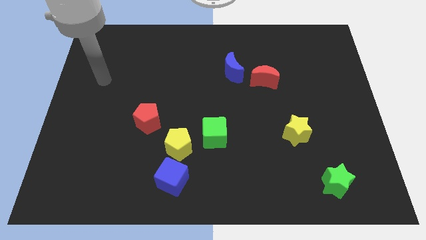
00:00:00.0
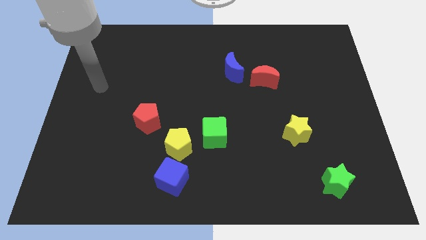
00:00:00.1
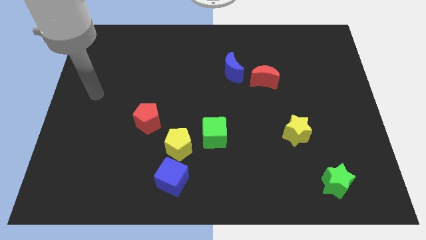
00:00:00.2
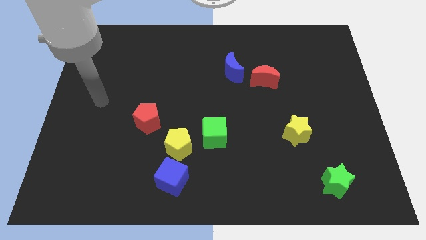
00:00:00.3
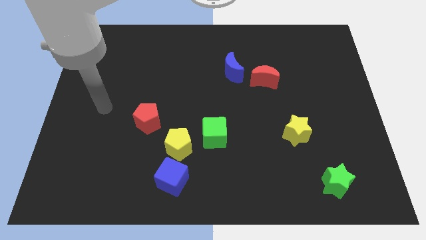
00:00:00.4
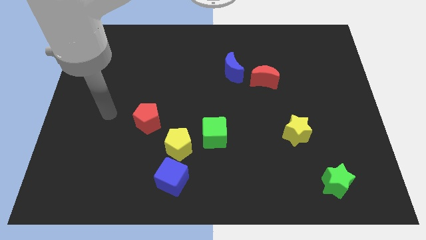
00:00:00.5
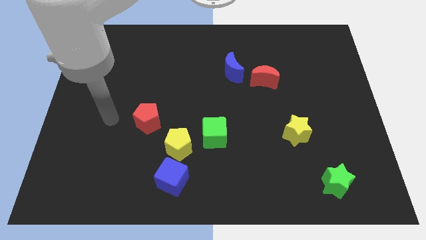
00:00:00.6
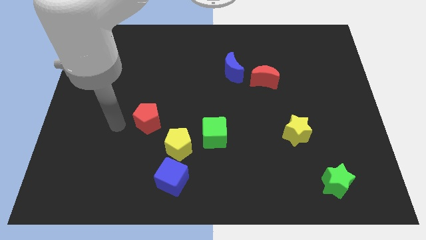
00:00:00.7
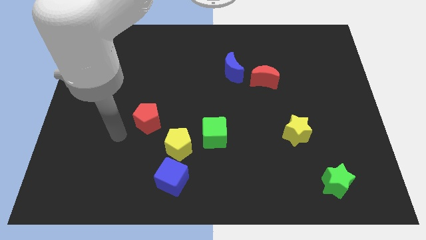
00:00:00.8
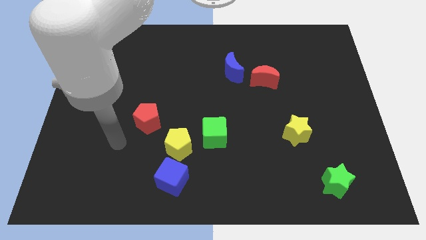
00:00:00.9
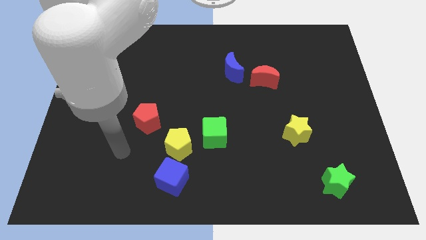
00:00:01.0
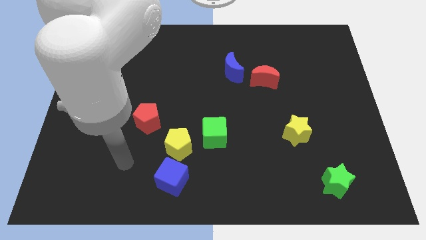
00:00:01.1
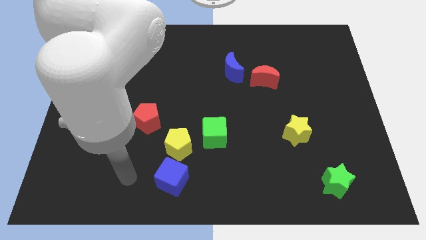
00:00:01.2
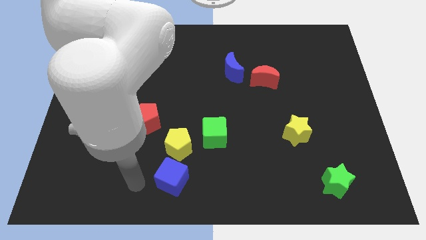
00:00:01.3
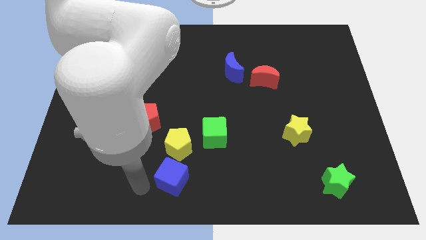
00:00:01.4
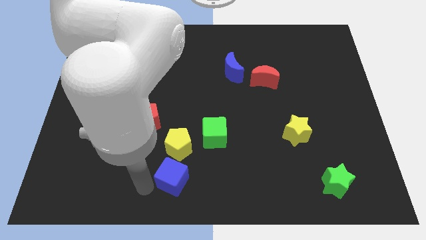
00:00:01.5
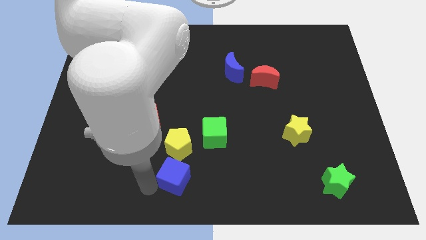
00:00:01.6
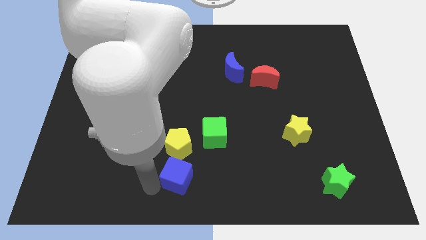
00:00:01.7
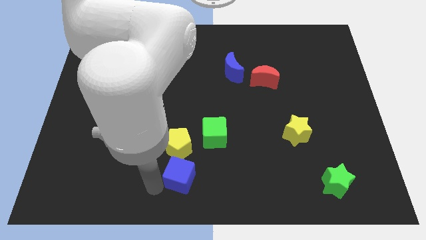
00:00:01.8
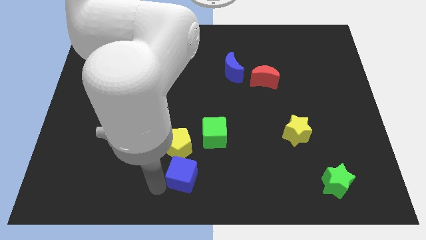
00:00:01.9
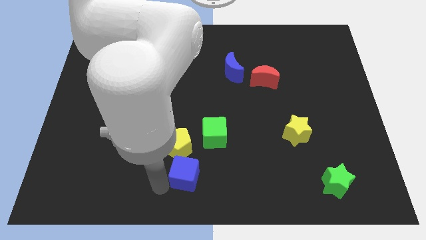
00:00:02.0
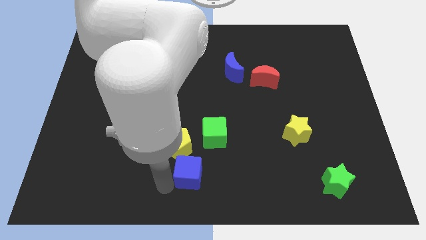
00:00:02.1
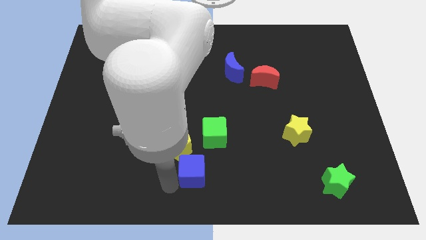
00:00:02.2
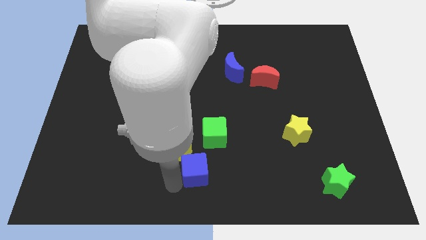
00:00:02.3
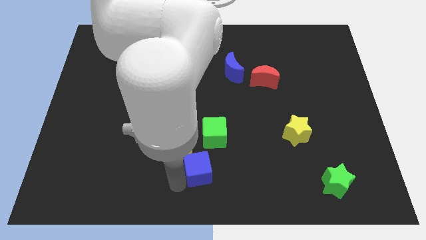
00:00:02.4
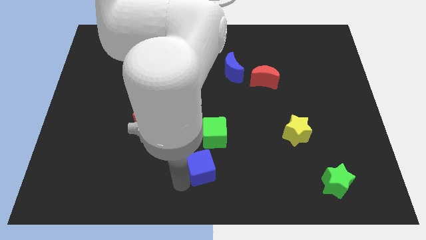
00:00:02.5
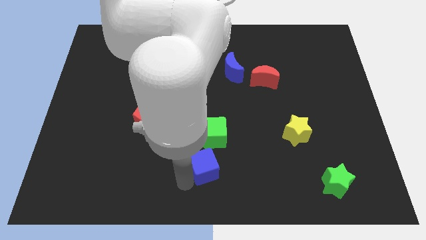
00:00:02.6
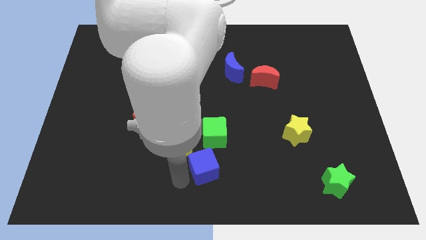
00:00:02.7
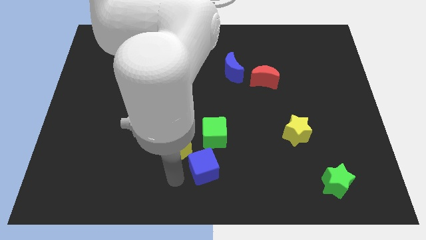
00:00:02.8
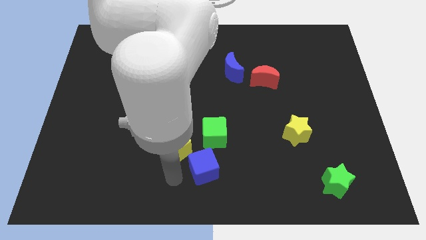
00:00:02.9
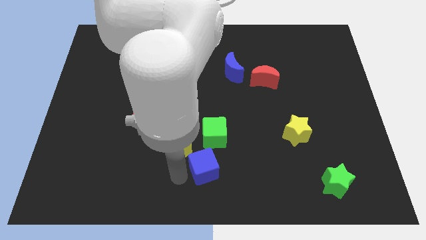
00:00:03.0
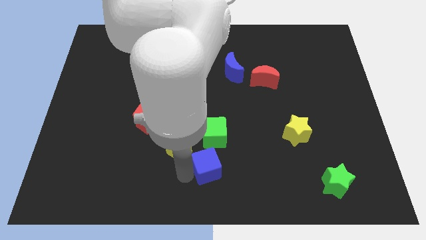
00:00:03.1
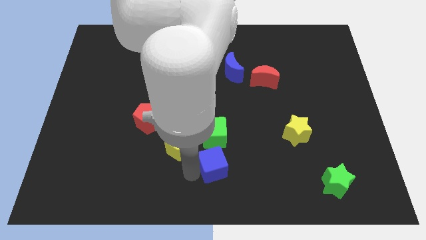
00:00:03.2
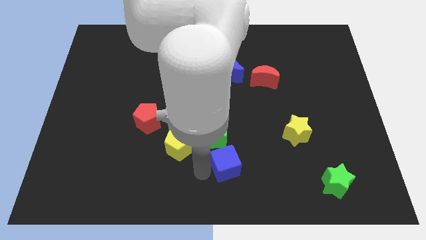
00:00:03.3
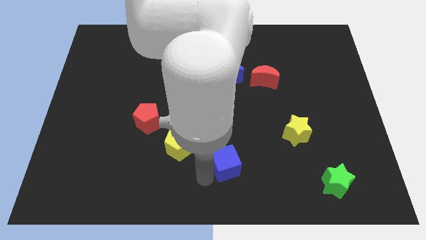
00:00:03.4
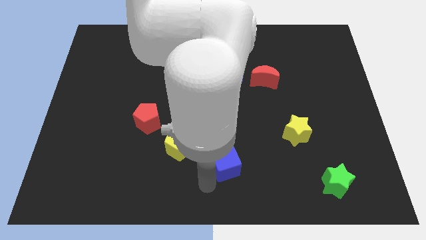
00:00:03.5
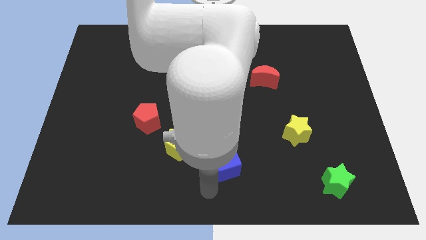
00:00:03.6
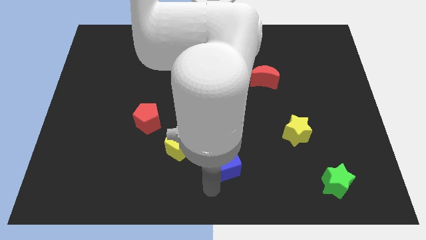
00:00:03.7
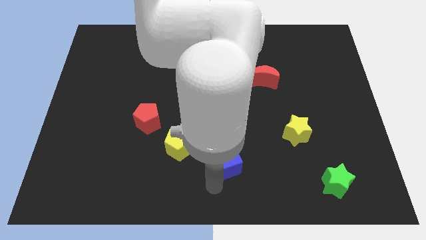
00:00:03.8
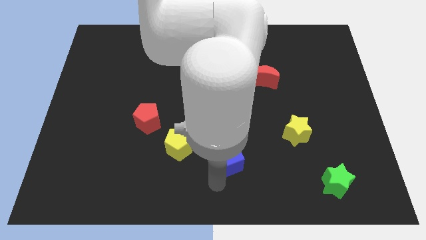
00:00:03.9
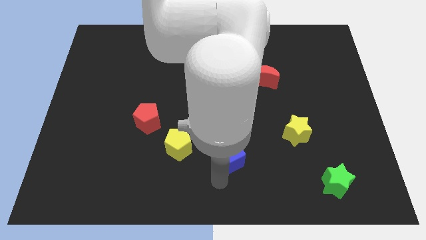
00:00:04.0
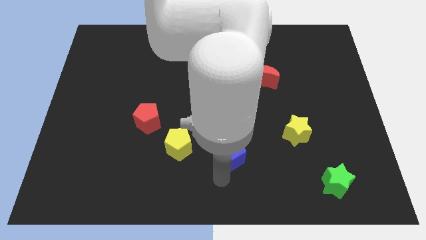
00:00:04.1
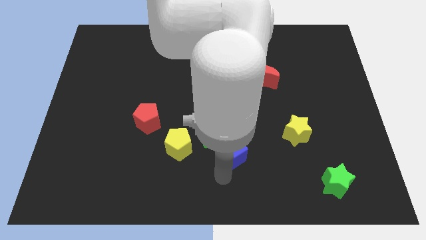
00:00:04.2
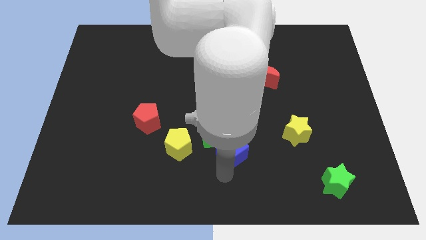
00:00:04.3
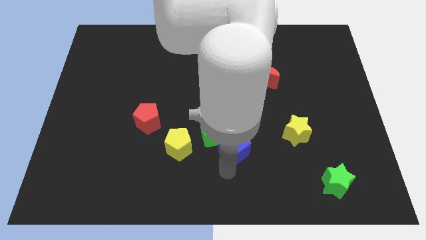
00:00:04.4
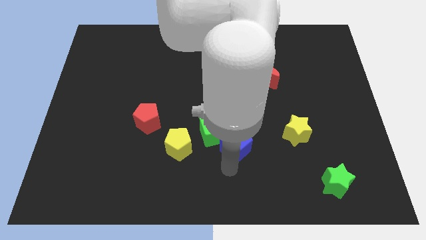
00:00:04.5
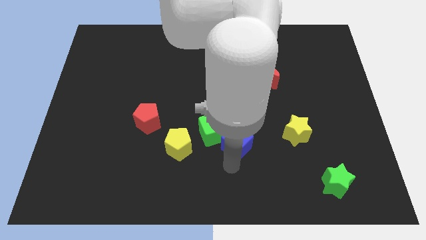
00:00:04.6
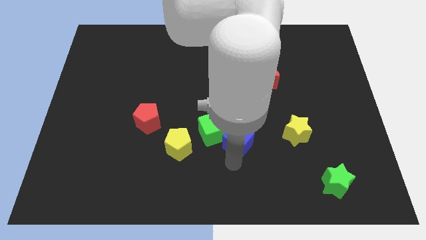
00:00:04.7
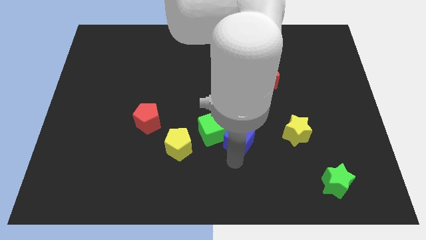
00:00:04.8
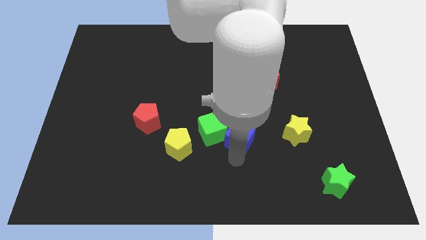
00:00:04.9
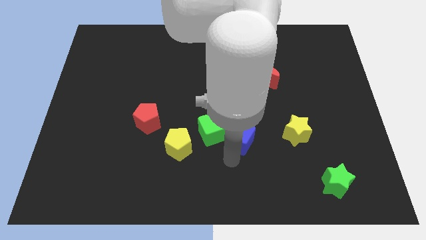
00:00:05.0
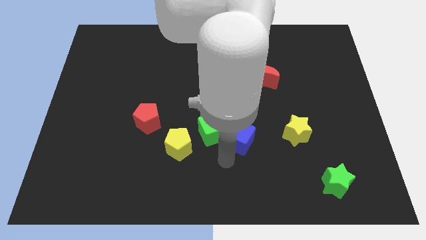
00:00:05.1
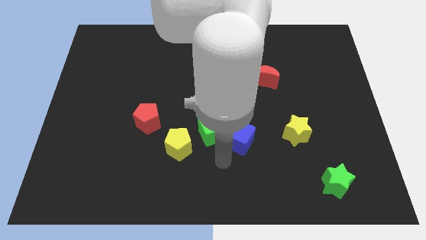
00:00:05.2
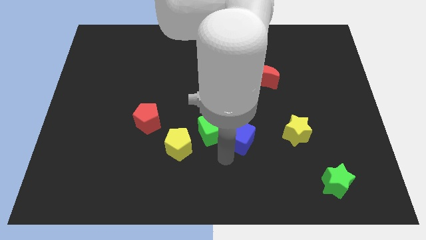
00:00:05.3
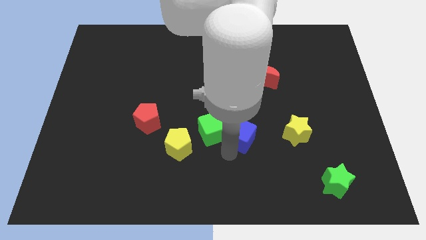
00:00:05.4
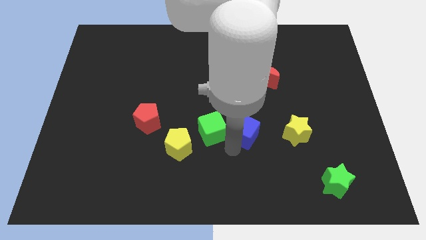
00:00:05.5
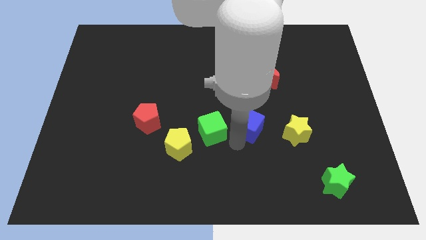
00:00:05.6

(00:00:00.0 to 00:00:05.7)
push the blue cube up and then to the right

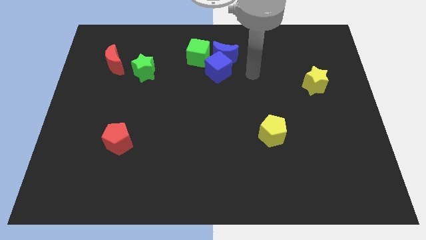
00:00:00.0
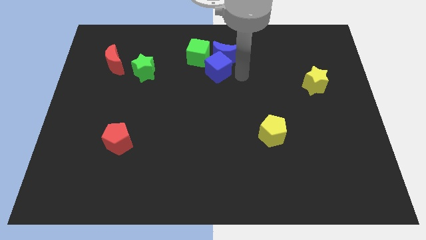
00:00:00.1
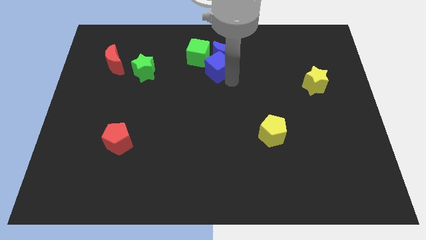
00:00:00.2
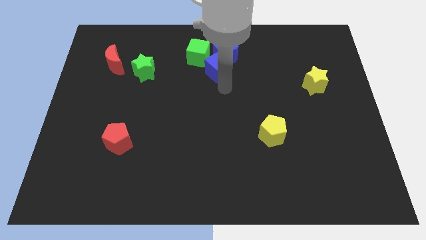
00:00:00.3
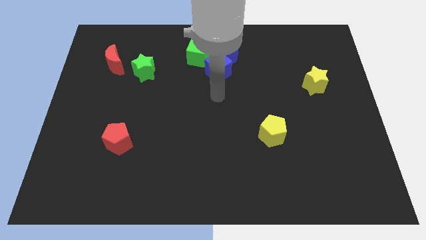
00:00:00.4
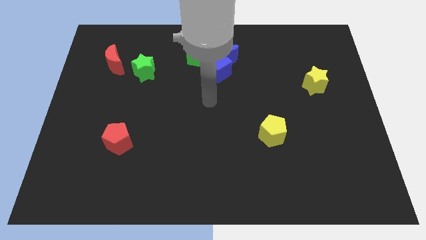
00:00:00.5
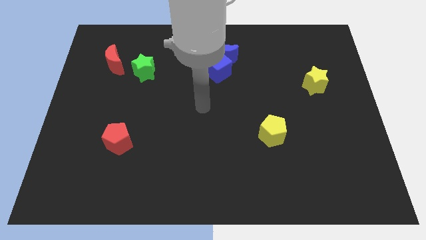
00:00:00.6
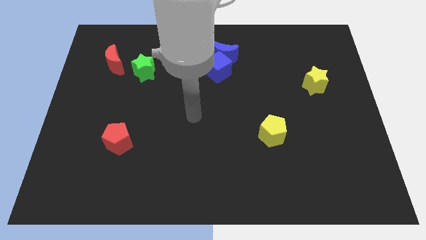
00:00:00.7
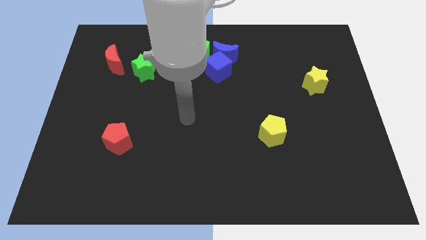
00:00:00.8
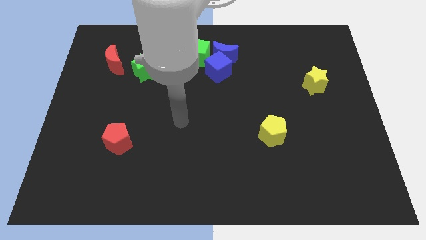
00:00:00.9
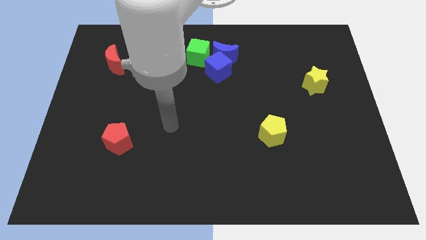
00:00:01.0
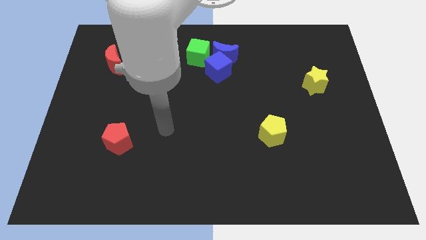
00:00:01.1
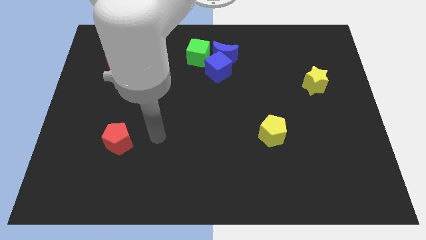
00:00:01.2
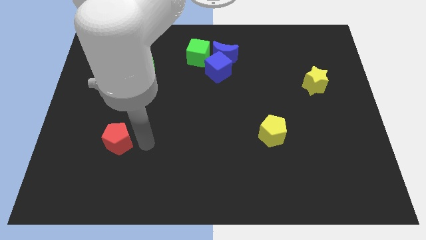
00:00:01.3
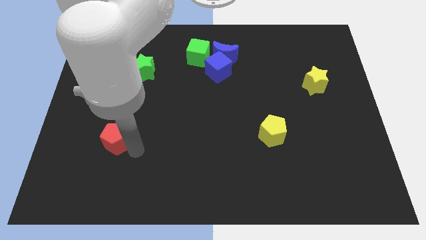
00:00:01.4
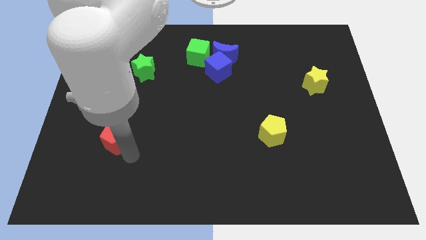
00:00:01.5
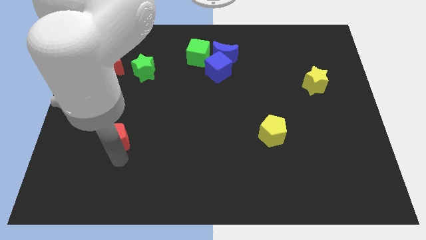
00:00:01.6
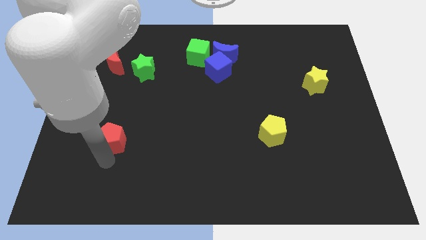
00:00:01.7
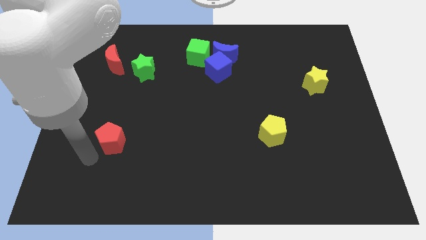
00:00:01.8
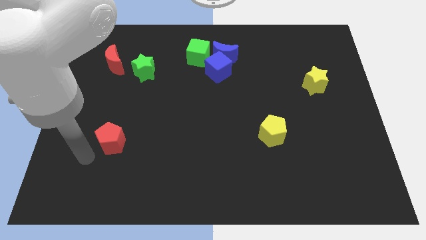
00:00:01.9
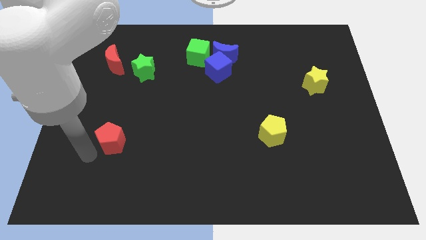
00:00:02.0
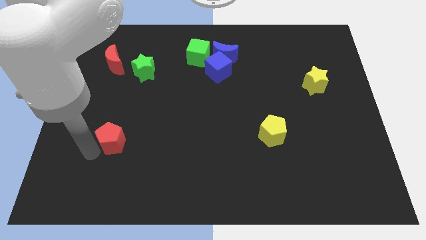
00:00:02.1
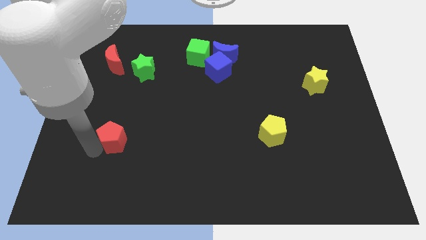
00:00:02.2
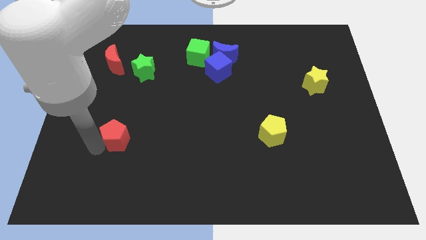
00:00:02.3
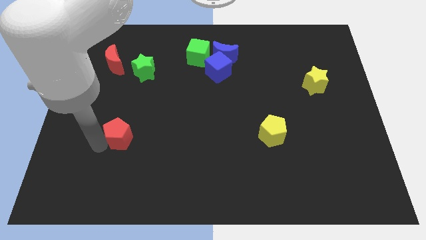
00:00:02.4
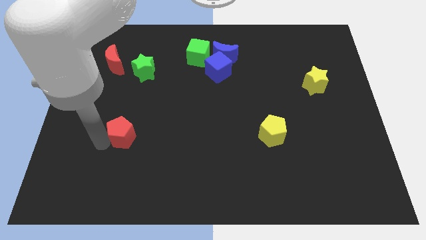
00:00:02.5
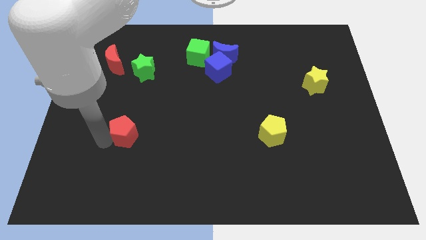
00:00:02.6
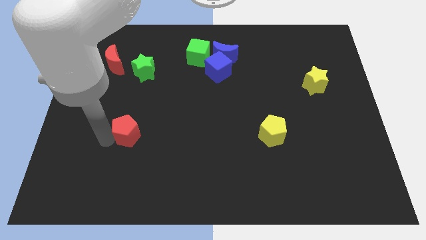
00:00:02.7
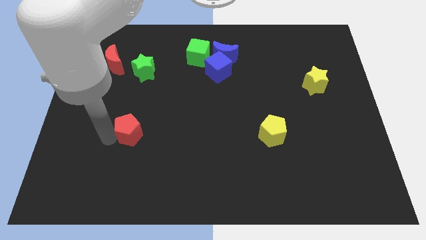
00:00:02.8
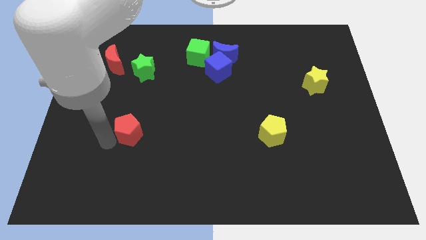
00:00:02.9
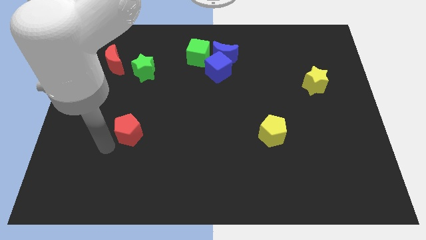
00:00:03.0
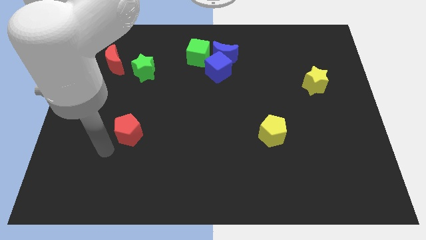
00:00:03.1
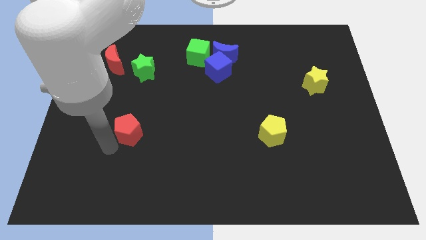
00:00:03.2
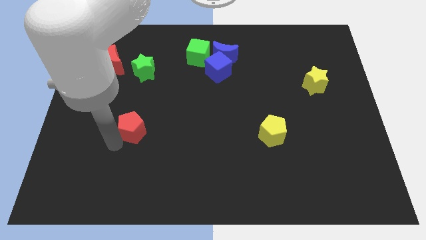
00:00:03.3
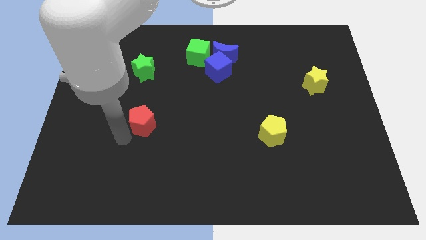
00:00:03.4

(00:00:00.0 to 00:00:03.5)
slide the red pentagon a little bit upwards and right
